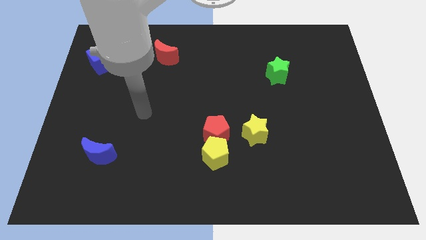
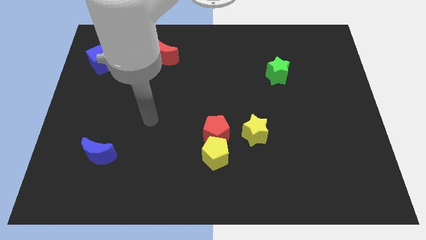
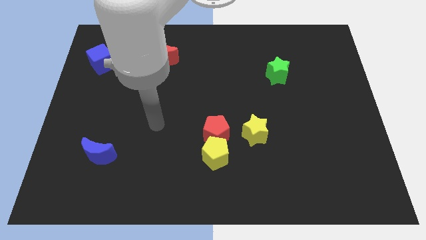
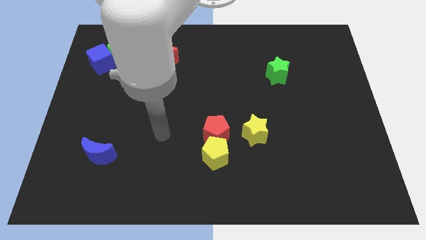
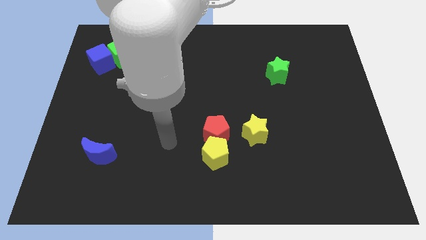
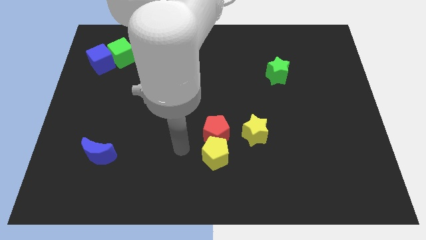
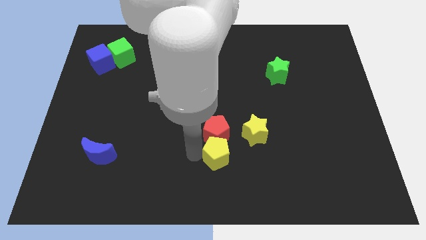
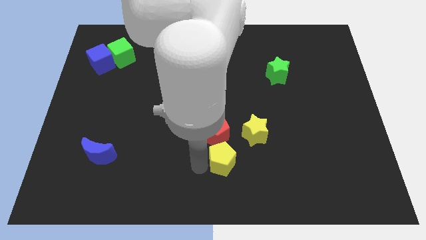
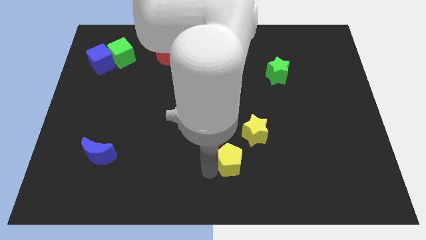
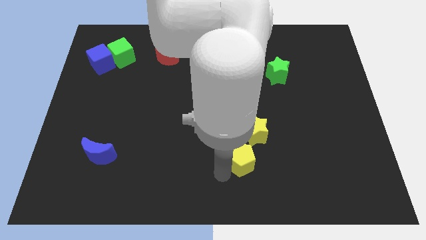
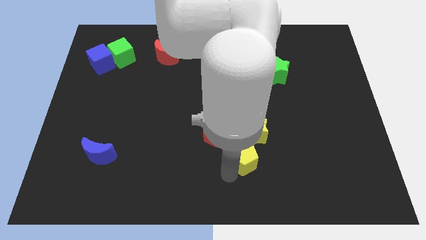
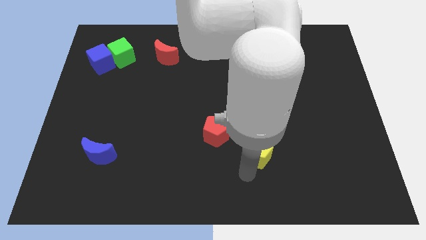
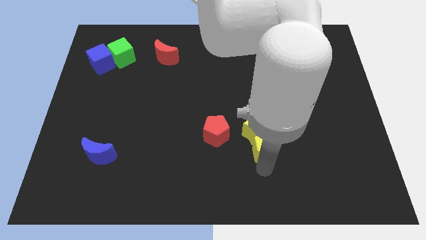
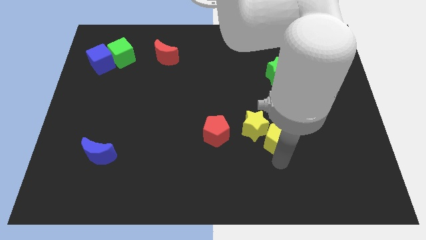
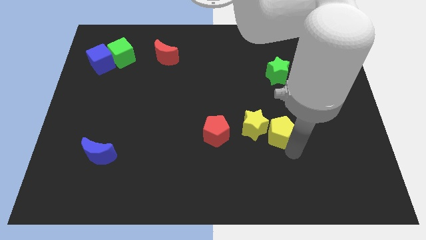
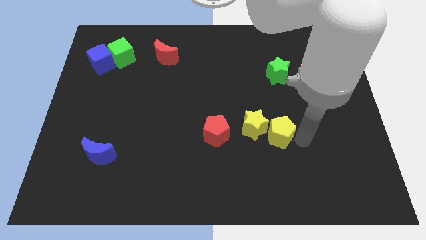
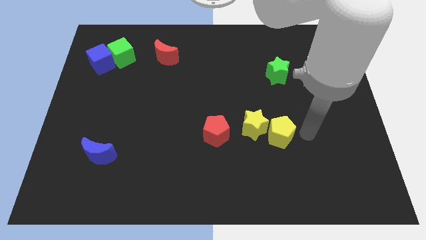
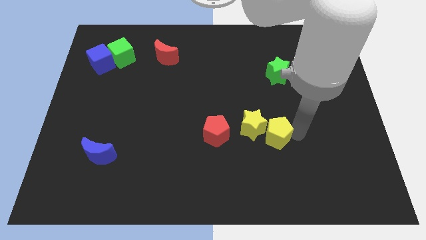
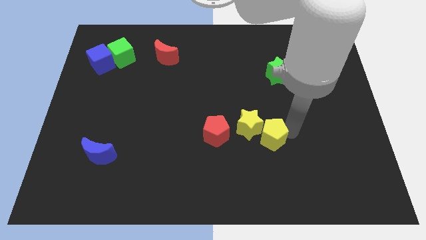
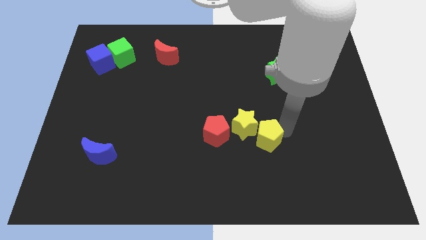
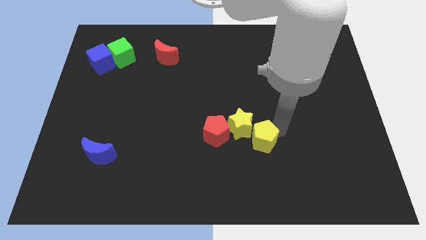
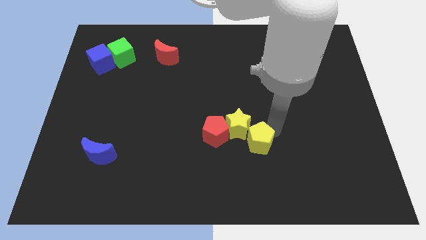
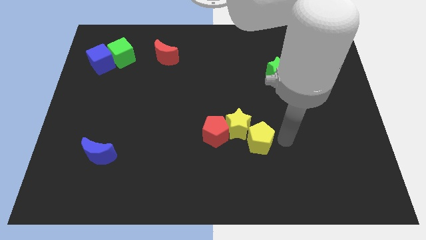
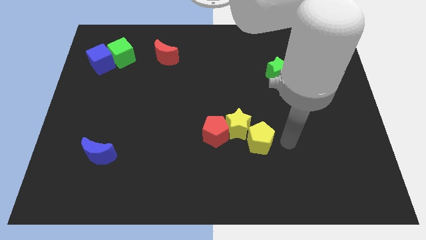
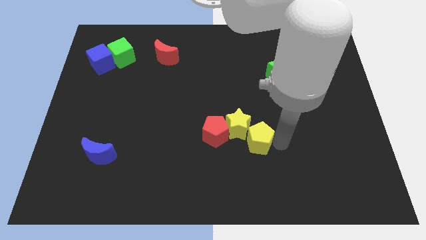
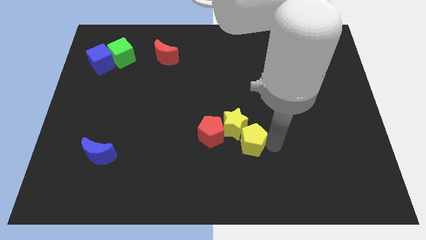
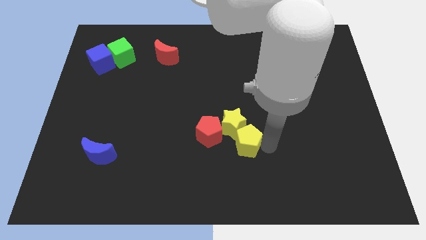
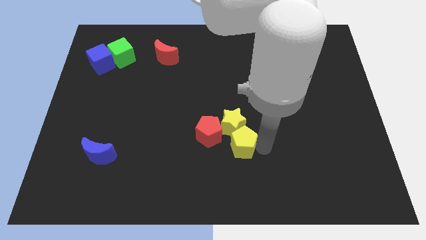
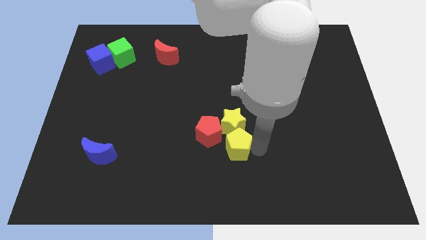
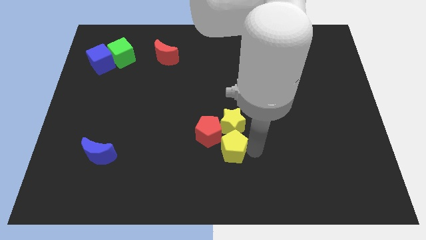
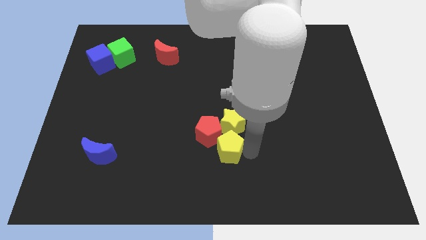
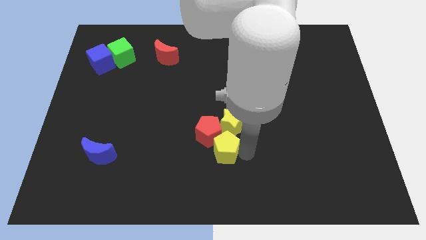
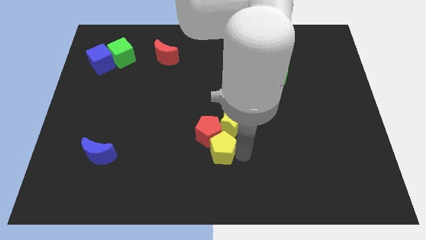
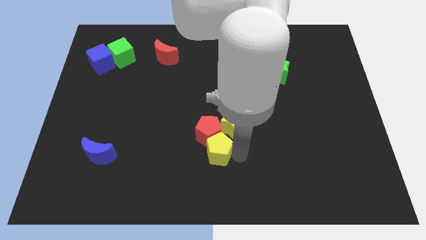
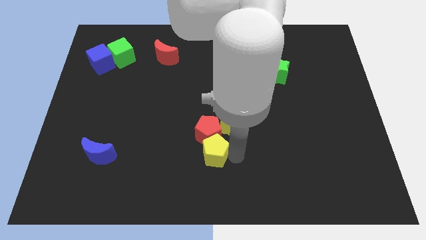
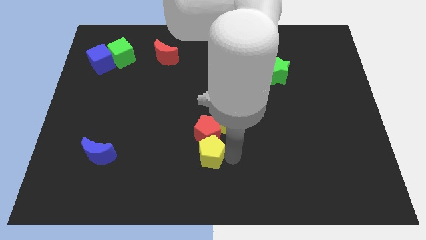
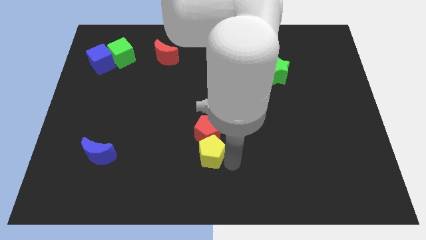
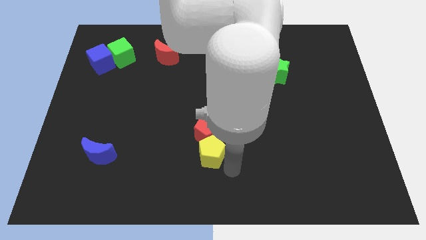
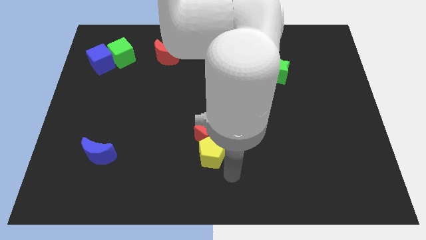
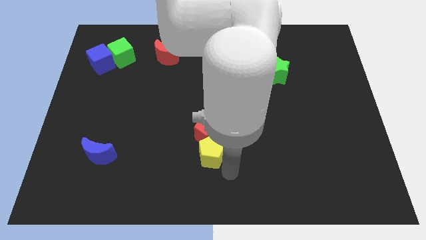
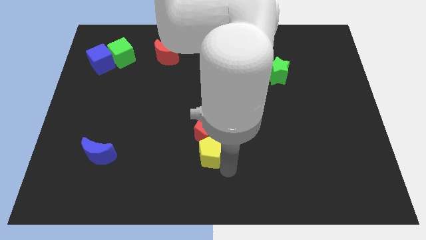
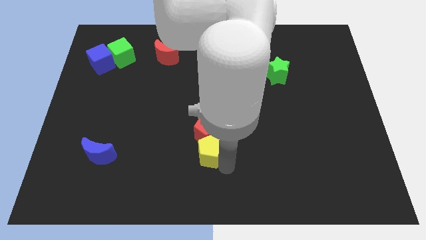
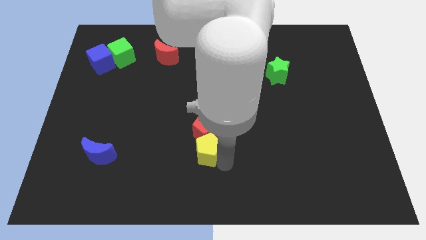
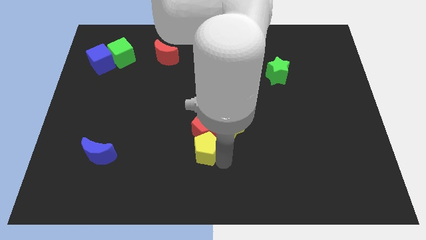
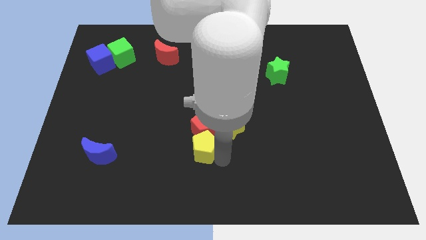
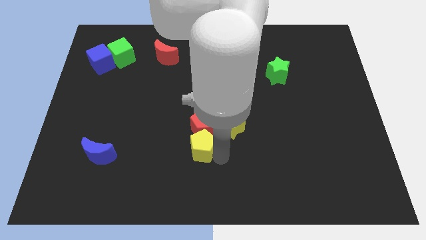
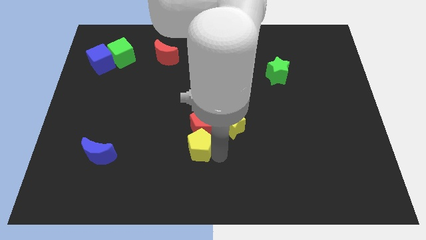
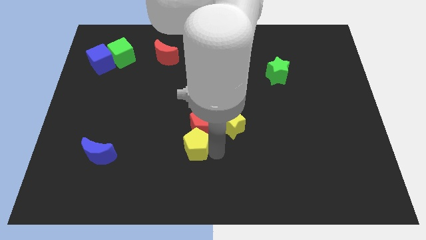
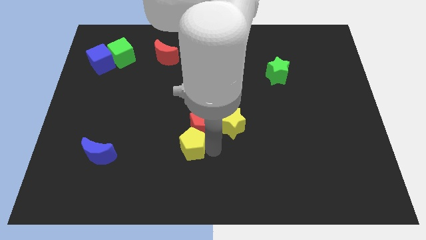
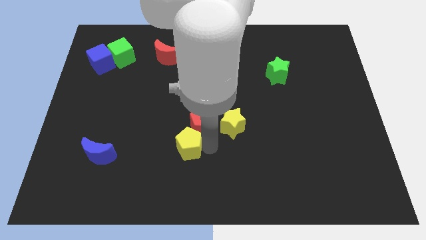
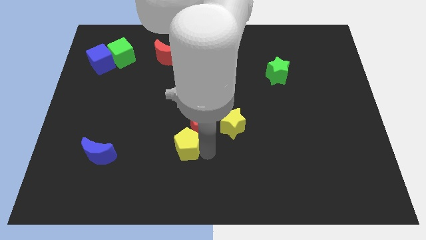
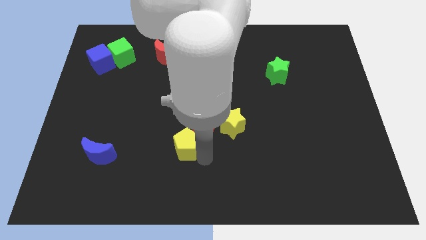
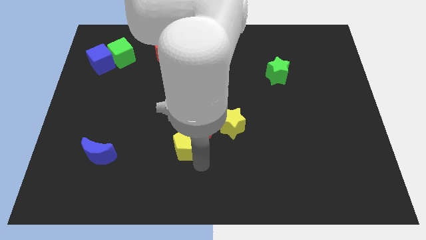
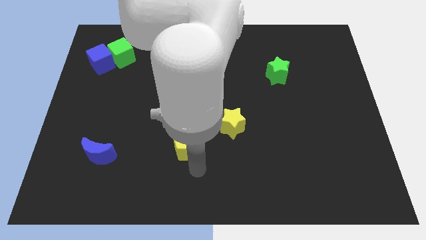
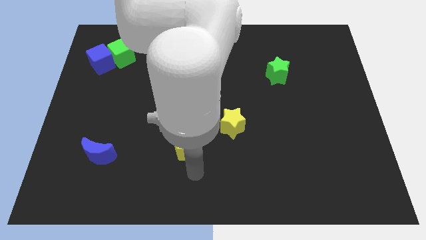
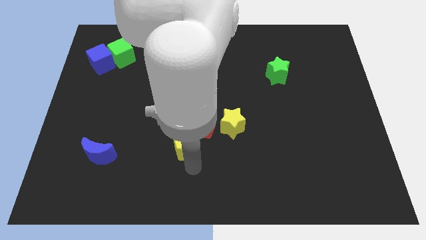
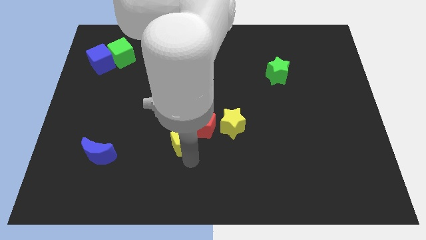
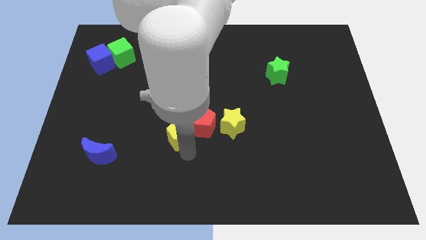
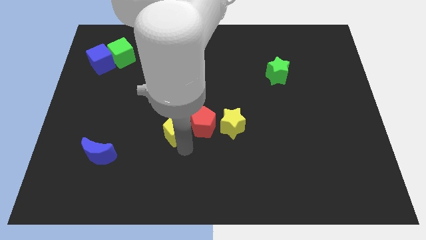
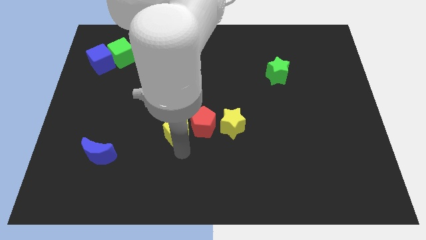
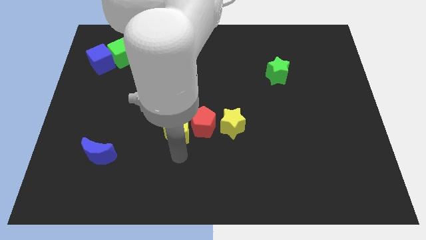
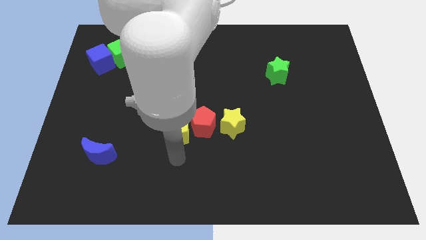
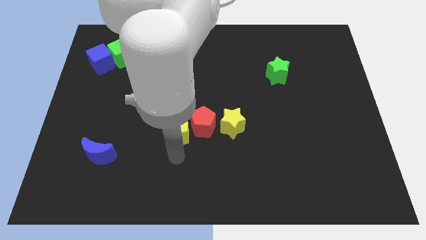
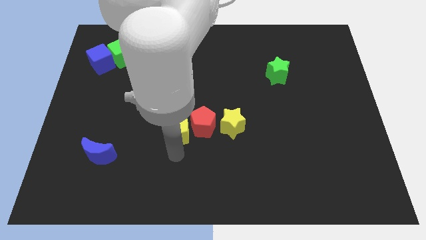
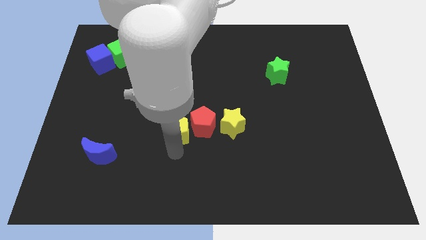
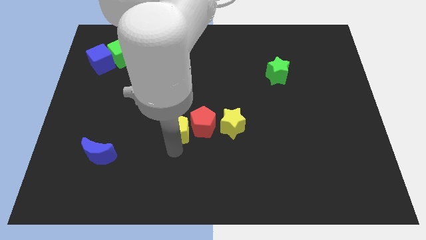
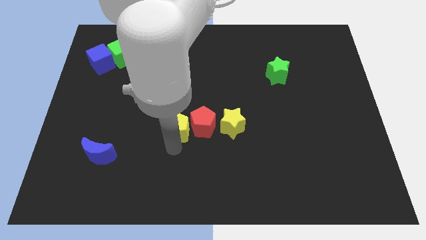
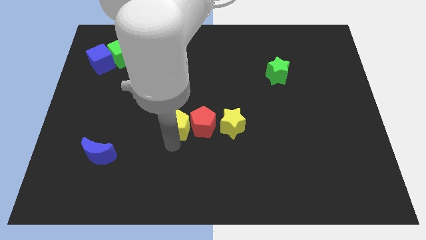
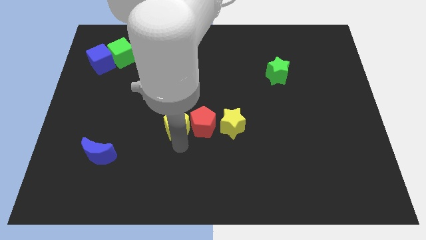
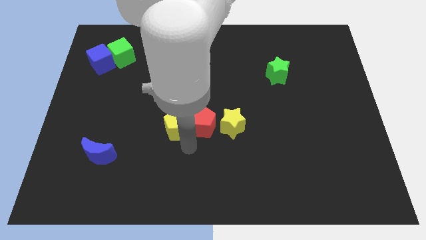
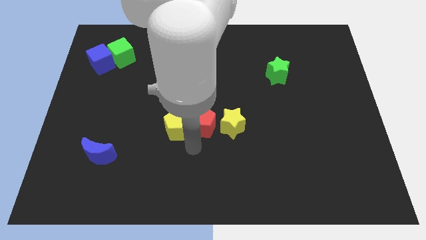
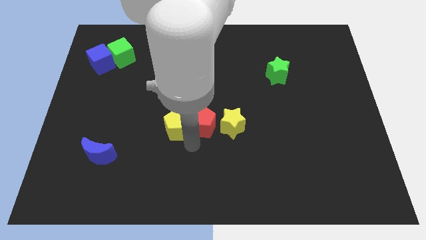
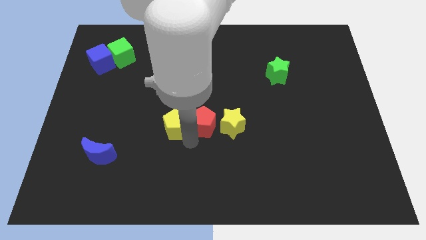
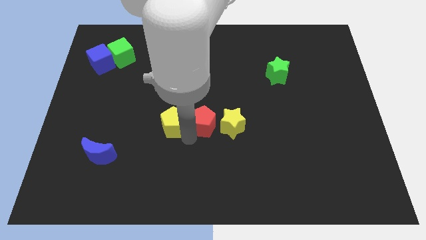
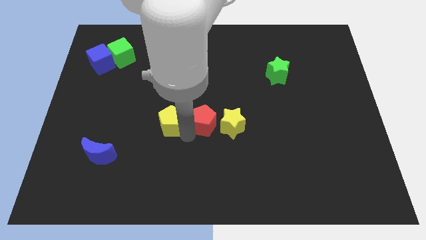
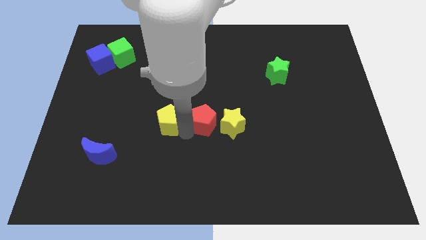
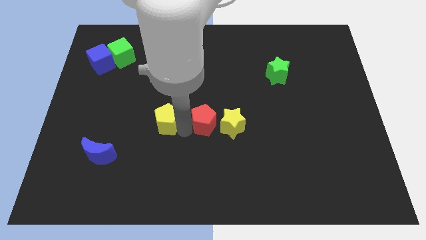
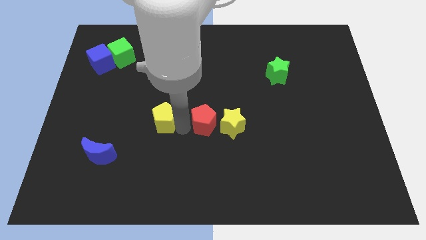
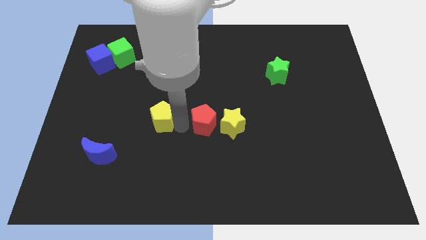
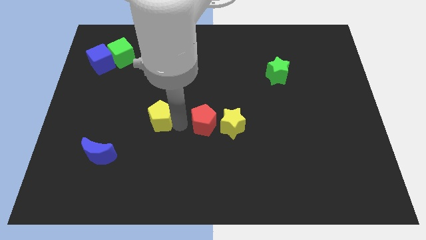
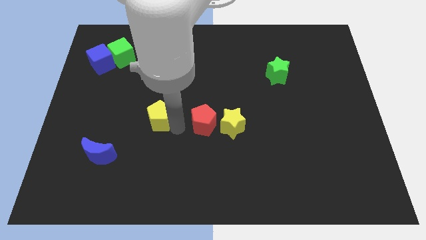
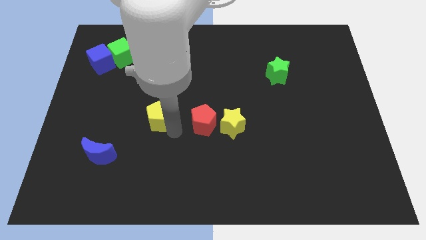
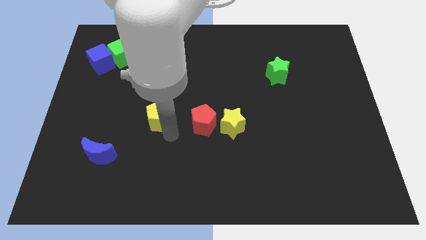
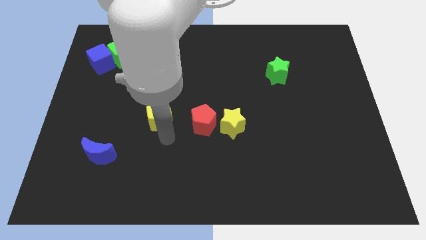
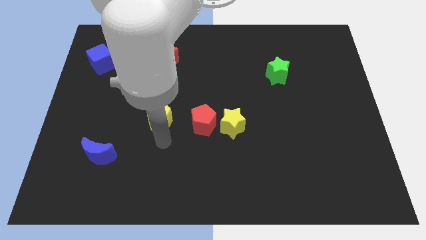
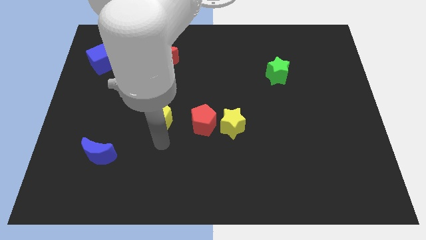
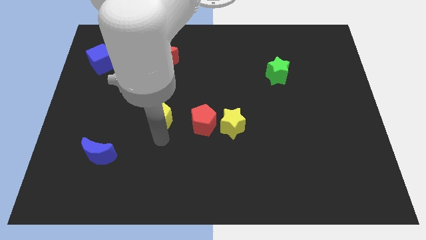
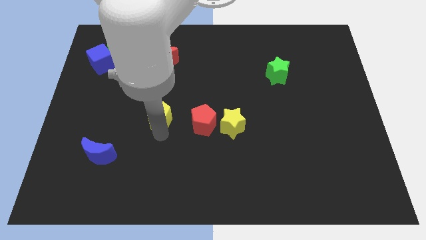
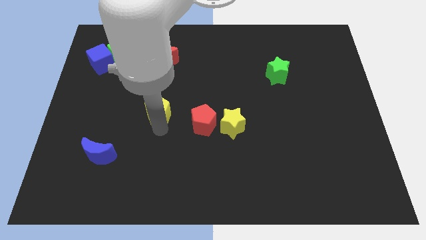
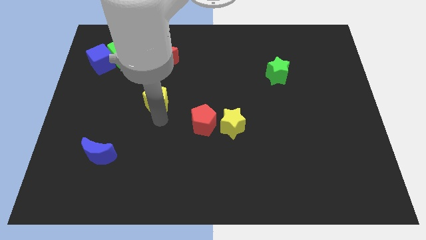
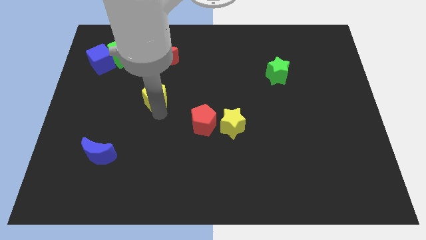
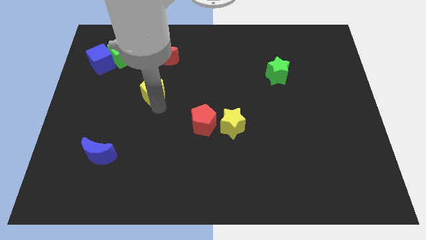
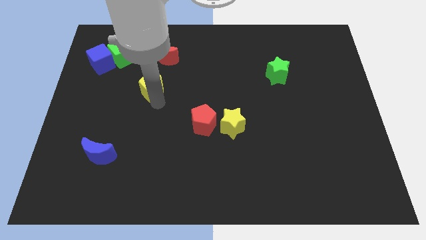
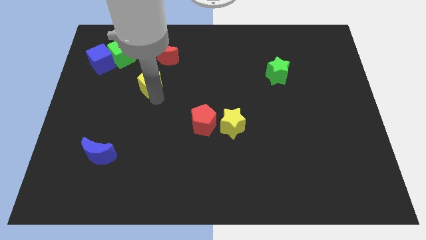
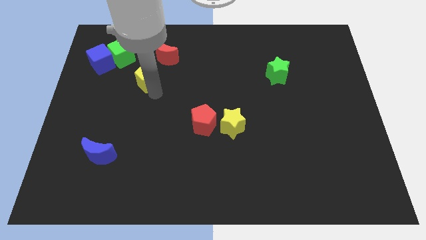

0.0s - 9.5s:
move the yellow pentagon to the bottom right side of the green cube
